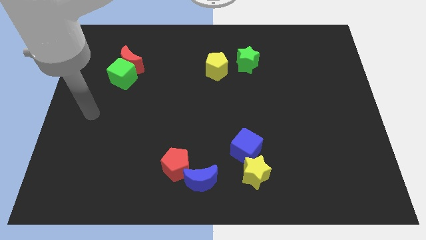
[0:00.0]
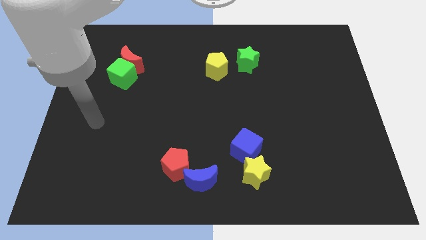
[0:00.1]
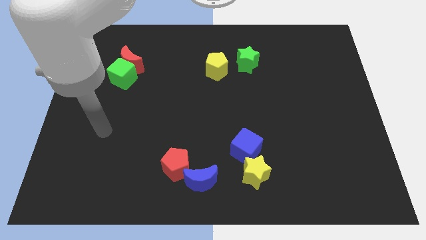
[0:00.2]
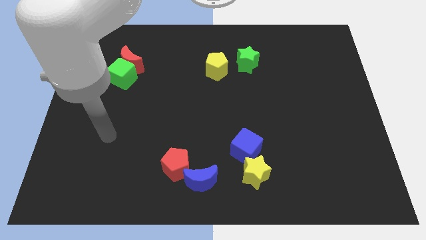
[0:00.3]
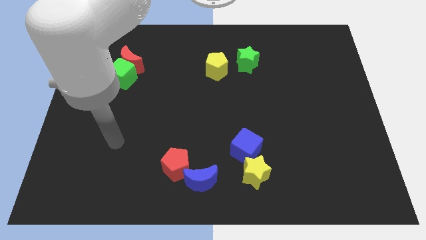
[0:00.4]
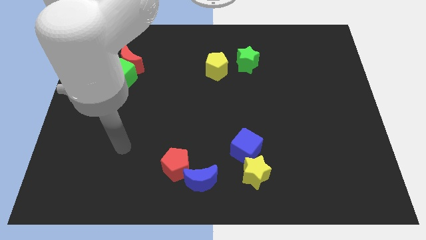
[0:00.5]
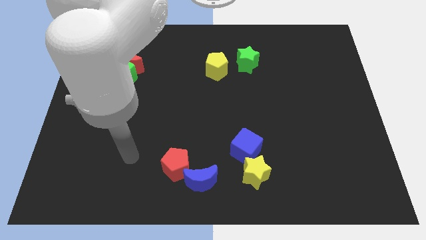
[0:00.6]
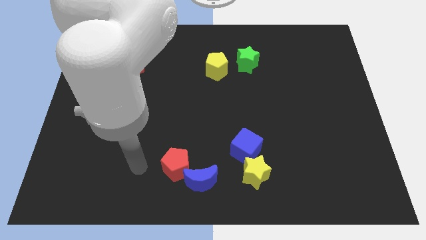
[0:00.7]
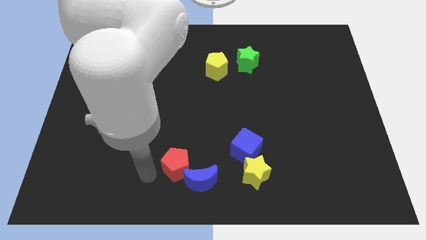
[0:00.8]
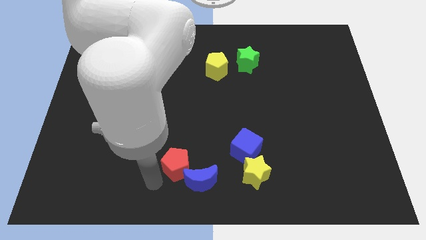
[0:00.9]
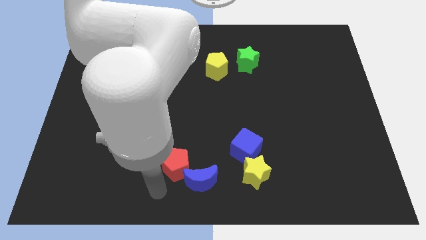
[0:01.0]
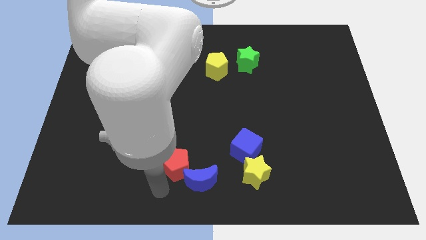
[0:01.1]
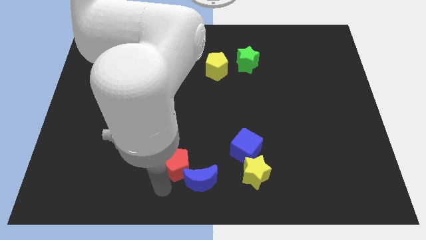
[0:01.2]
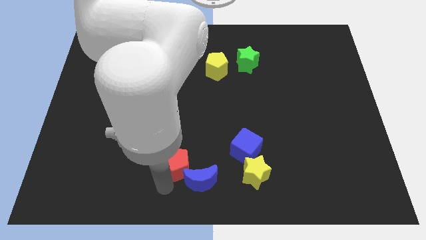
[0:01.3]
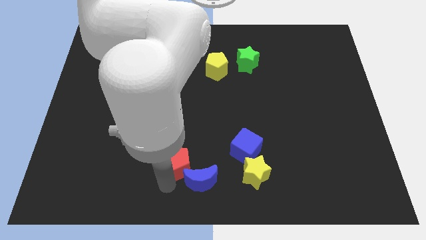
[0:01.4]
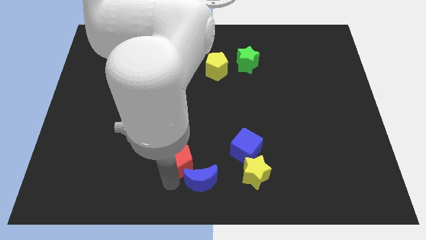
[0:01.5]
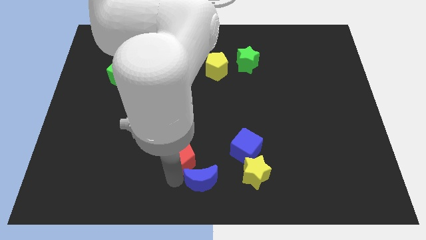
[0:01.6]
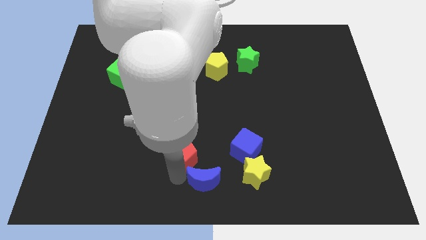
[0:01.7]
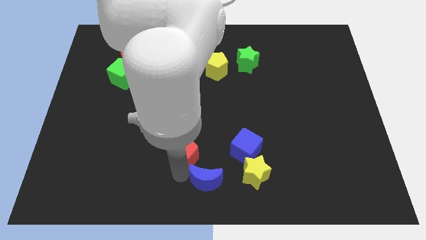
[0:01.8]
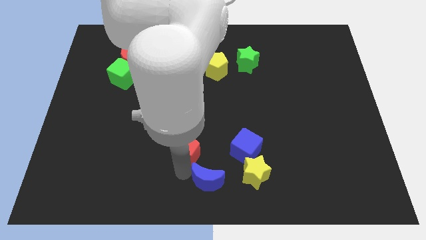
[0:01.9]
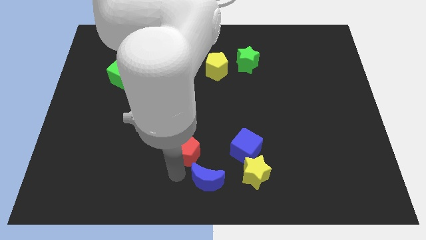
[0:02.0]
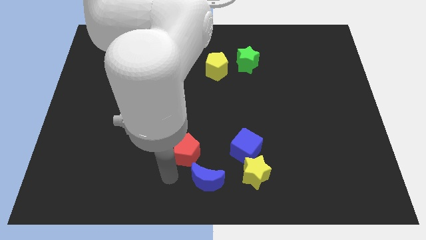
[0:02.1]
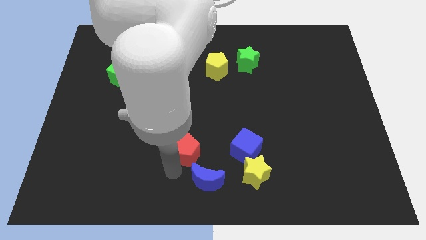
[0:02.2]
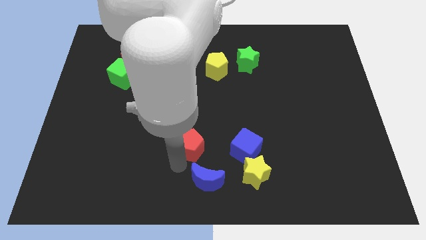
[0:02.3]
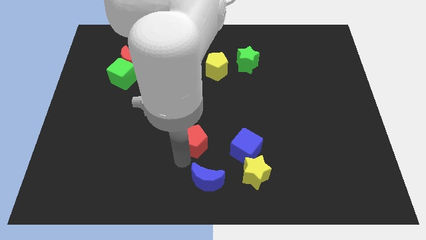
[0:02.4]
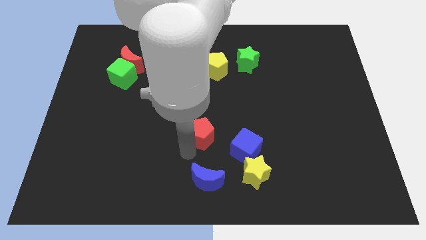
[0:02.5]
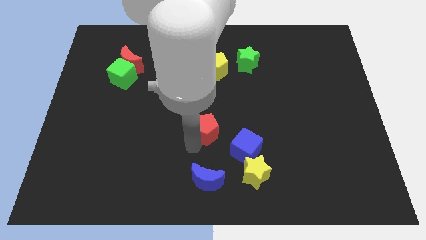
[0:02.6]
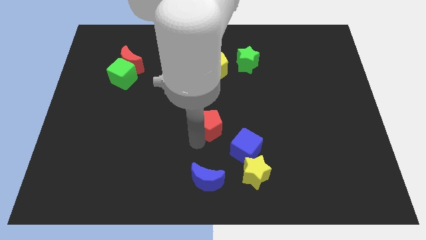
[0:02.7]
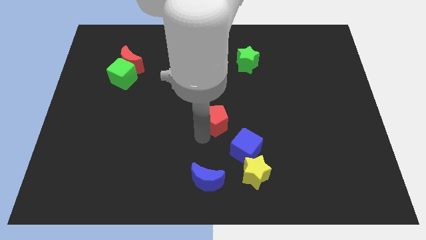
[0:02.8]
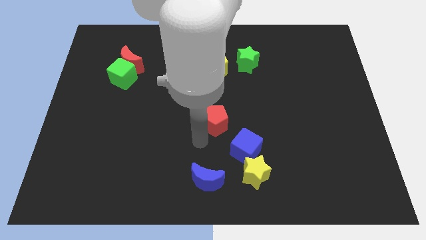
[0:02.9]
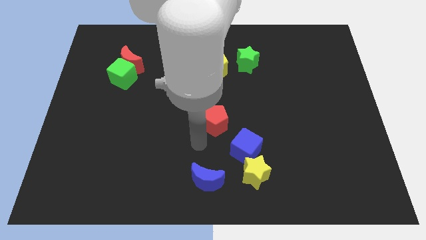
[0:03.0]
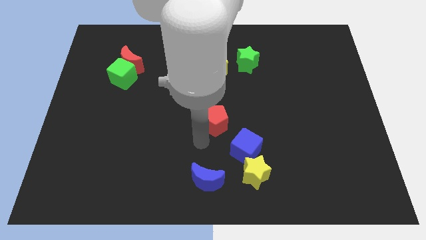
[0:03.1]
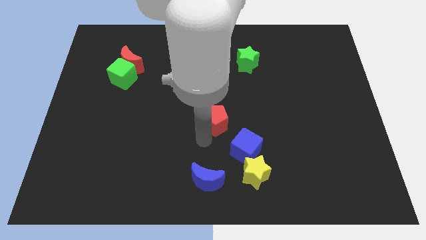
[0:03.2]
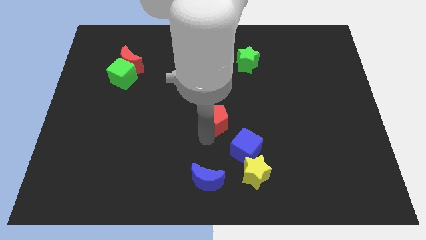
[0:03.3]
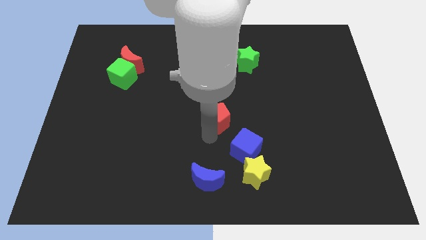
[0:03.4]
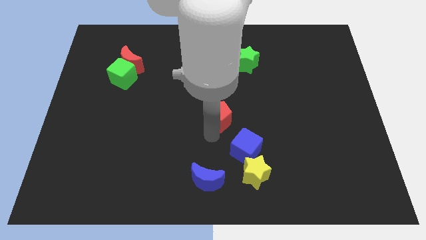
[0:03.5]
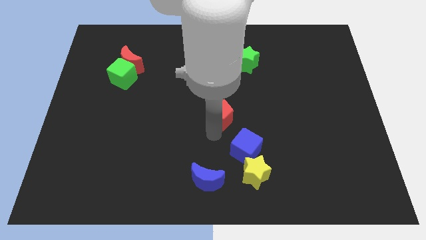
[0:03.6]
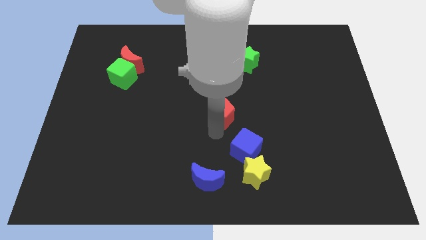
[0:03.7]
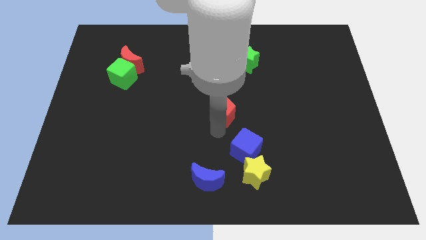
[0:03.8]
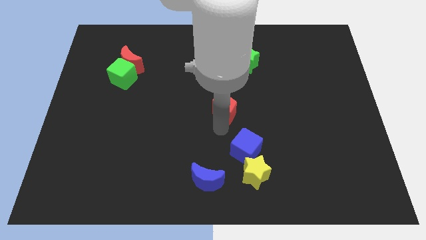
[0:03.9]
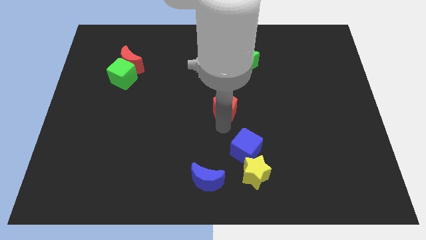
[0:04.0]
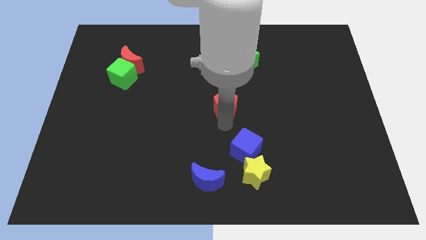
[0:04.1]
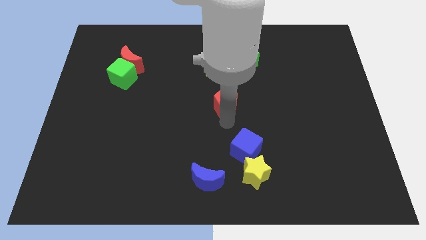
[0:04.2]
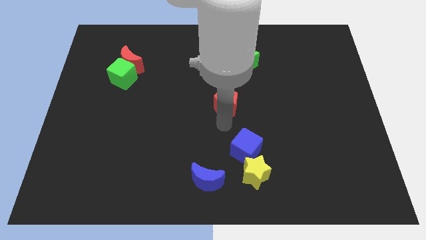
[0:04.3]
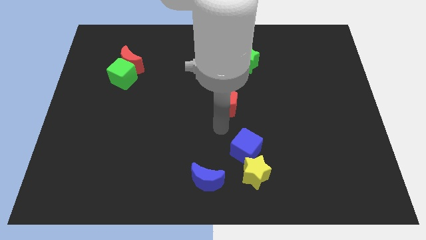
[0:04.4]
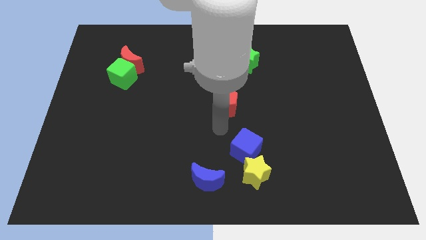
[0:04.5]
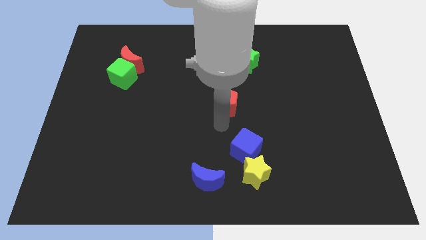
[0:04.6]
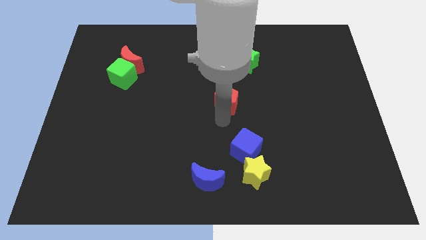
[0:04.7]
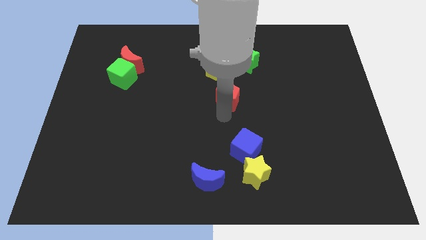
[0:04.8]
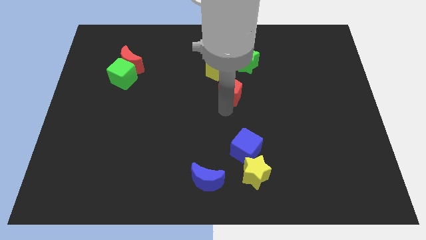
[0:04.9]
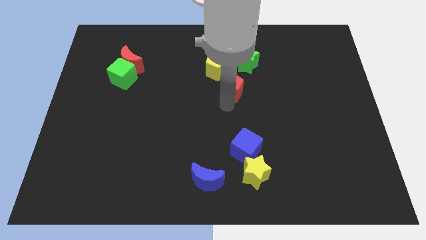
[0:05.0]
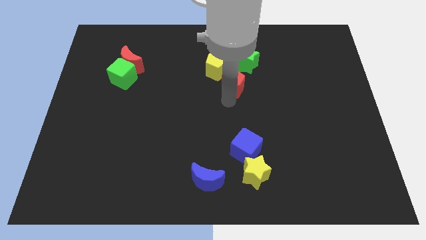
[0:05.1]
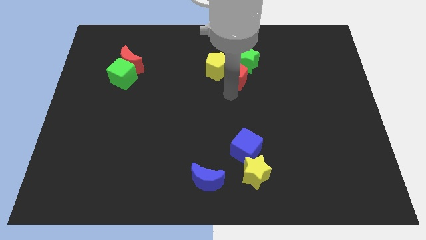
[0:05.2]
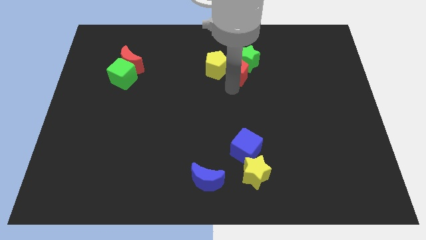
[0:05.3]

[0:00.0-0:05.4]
put the red pentagon close to the green star

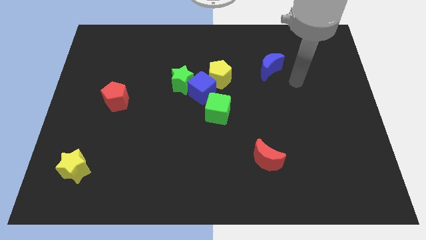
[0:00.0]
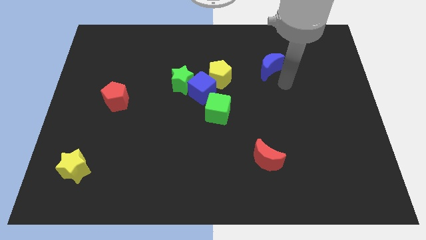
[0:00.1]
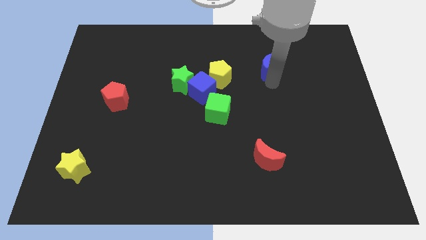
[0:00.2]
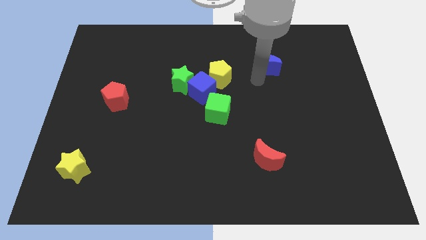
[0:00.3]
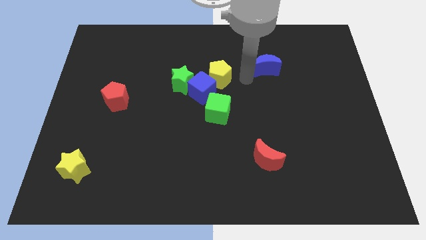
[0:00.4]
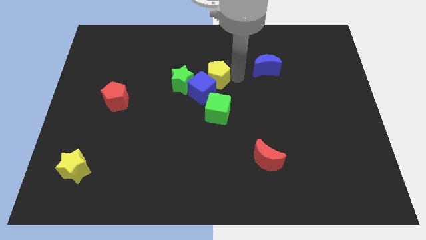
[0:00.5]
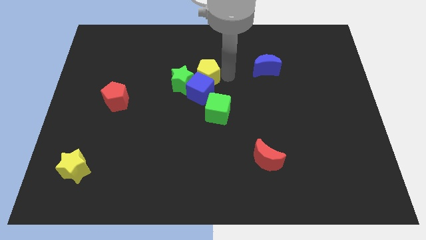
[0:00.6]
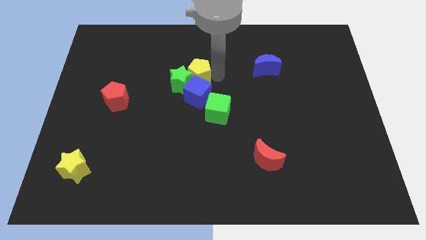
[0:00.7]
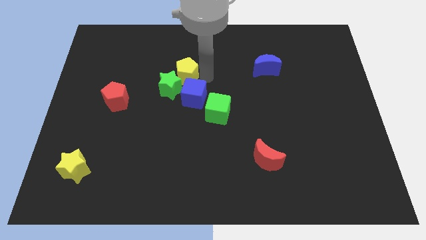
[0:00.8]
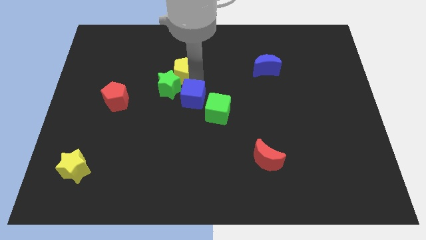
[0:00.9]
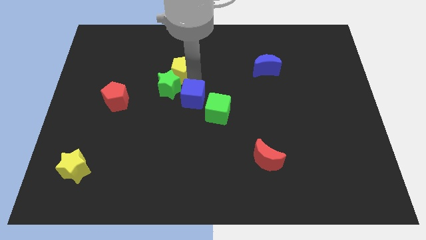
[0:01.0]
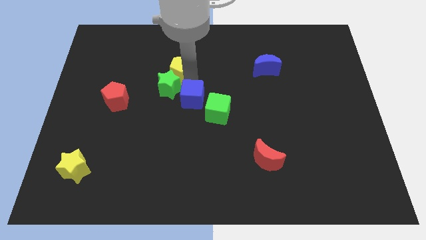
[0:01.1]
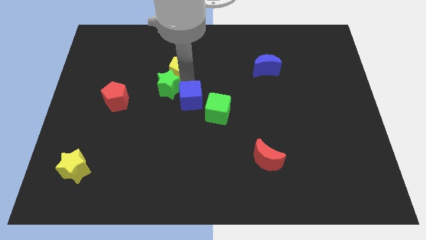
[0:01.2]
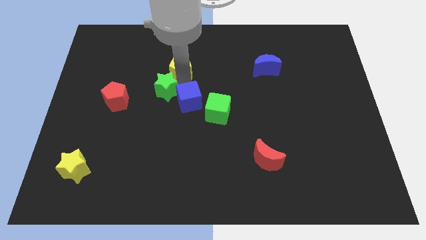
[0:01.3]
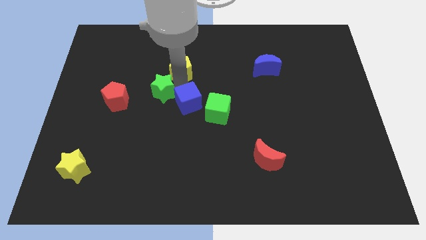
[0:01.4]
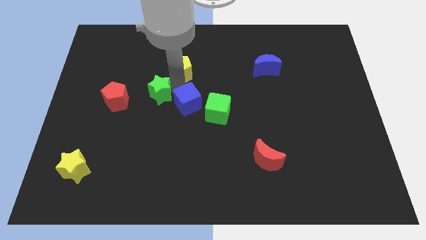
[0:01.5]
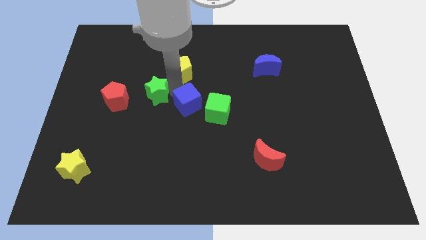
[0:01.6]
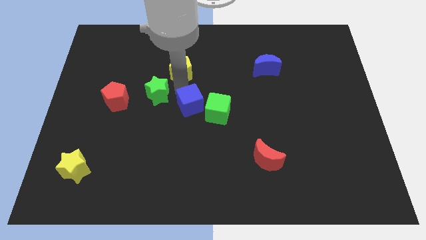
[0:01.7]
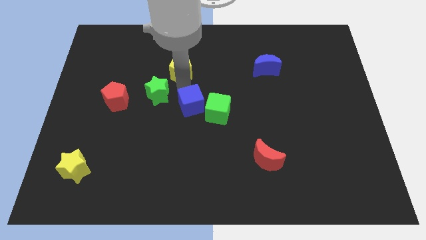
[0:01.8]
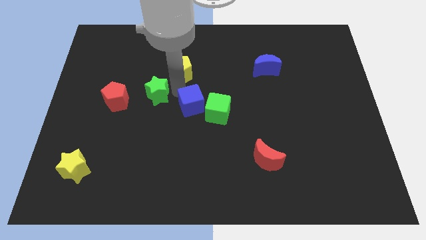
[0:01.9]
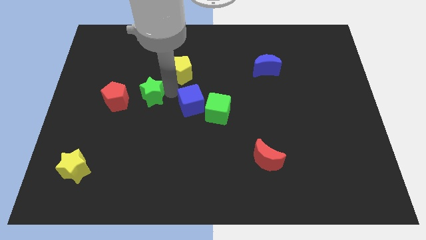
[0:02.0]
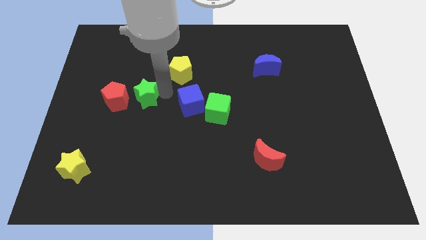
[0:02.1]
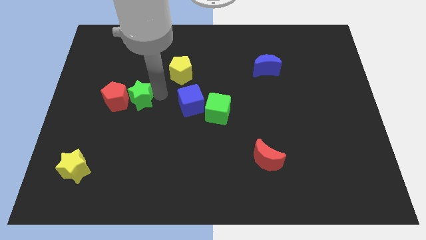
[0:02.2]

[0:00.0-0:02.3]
slide the green star next to the red pentagon

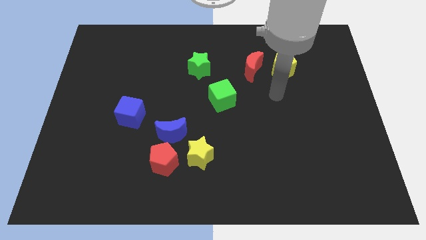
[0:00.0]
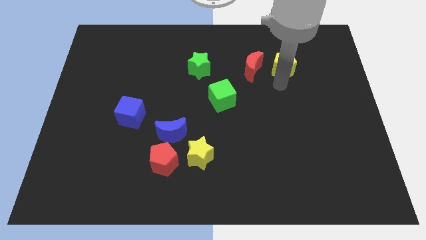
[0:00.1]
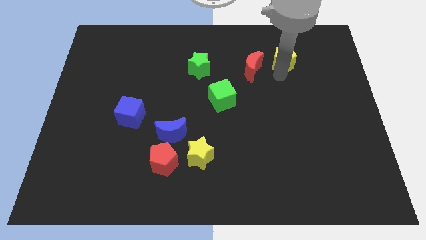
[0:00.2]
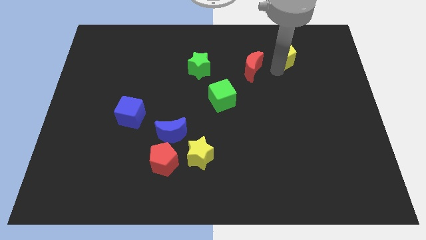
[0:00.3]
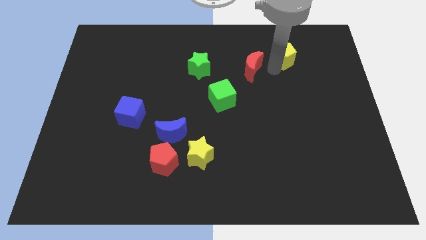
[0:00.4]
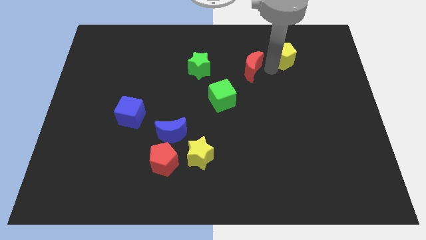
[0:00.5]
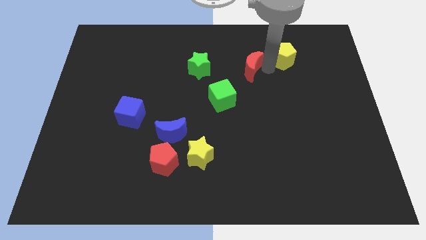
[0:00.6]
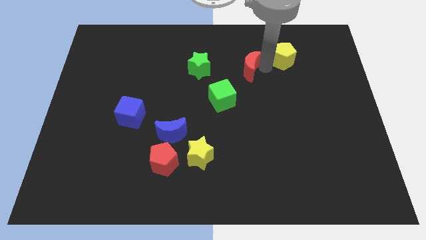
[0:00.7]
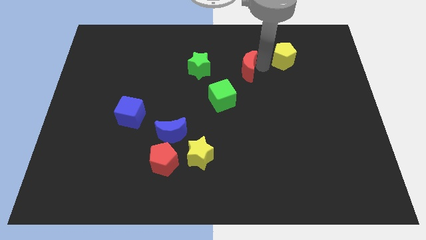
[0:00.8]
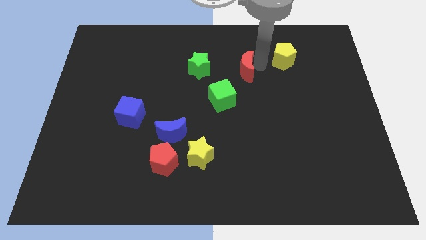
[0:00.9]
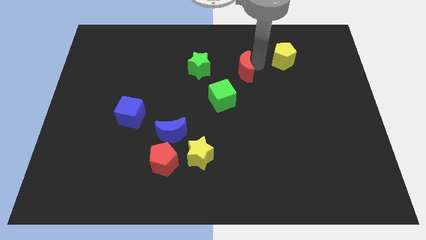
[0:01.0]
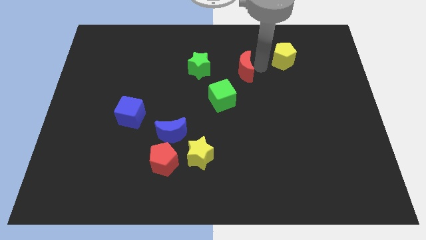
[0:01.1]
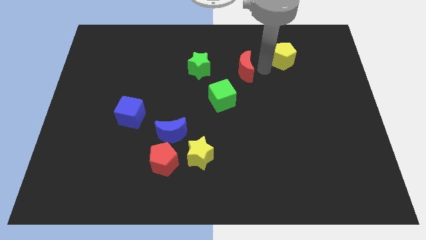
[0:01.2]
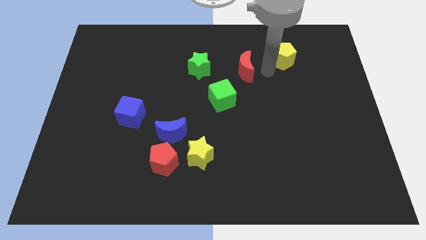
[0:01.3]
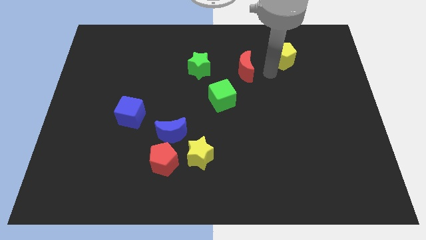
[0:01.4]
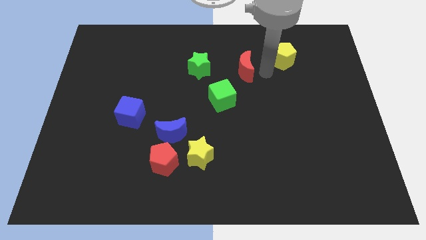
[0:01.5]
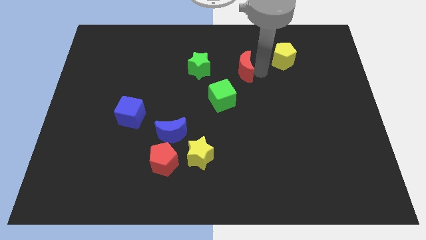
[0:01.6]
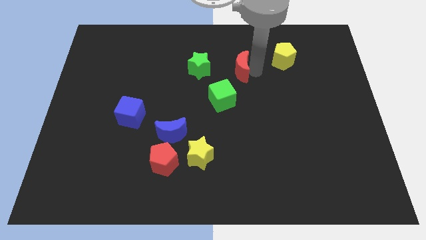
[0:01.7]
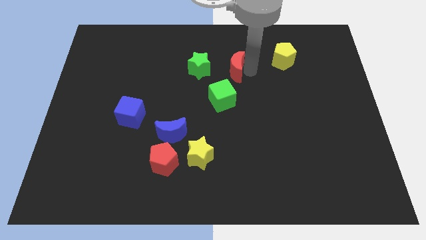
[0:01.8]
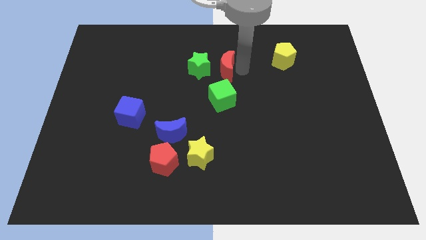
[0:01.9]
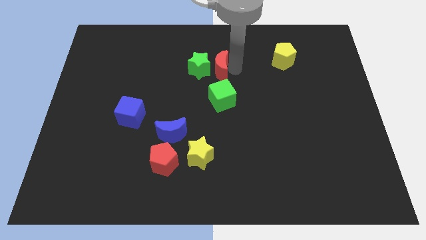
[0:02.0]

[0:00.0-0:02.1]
put the red moon next to the green star
